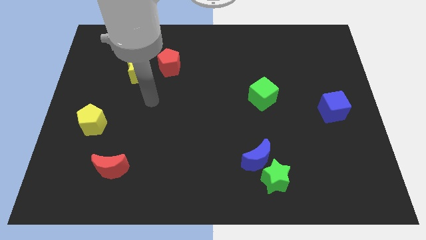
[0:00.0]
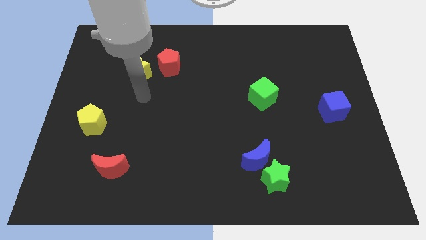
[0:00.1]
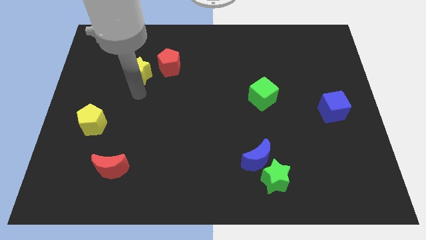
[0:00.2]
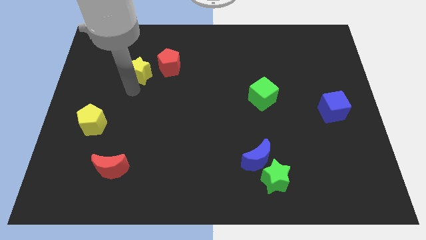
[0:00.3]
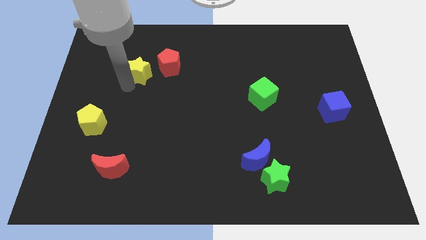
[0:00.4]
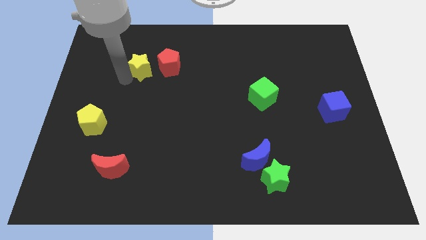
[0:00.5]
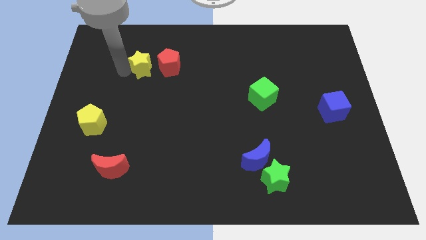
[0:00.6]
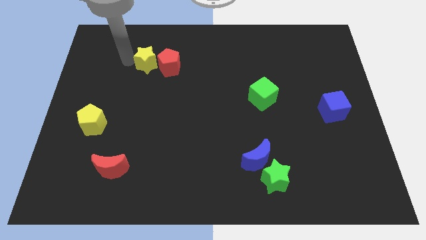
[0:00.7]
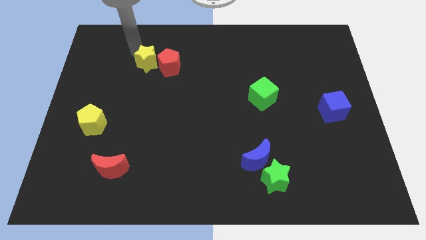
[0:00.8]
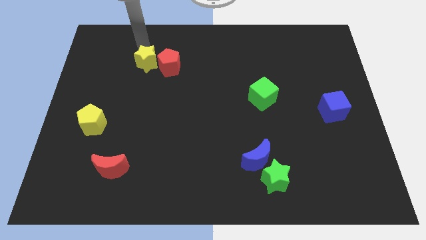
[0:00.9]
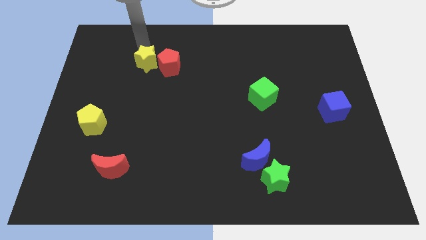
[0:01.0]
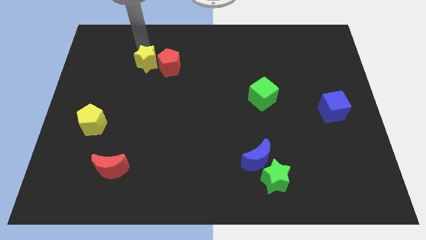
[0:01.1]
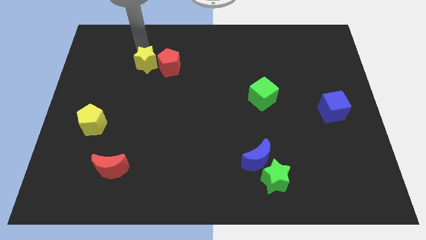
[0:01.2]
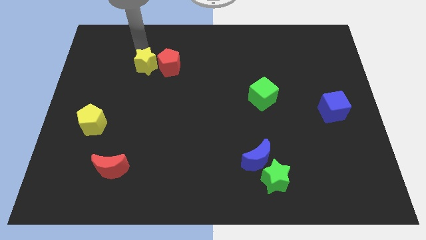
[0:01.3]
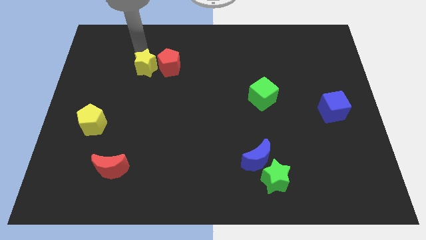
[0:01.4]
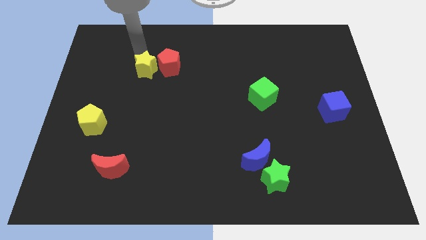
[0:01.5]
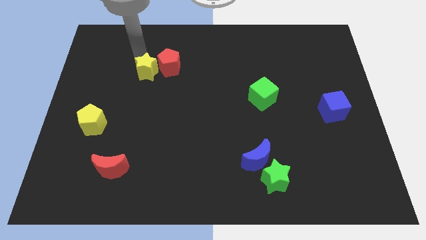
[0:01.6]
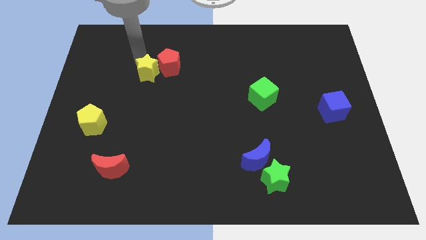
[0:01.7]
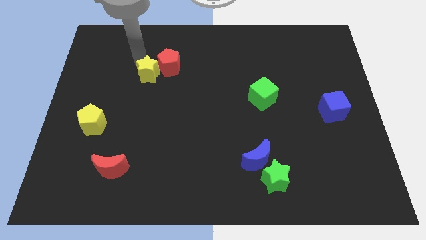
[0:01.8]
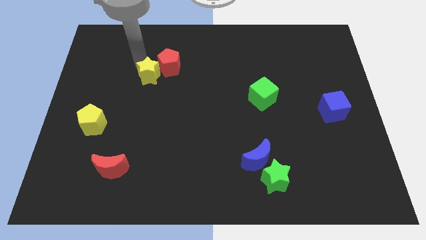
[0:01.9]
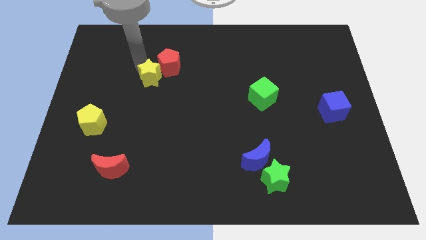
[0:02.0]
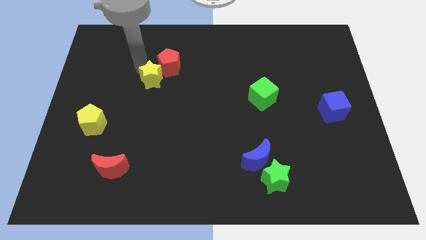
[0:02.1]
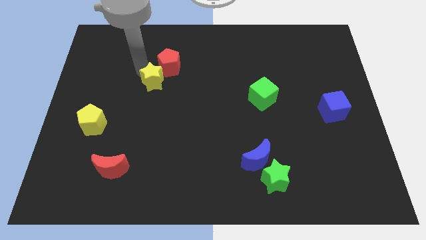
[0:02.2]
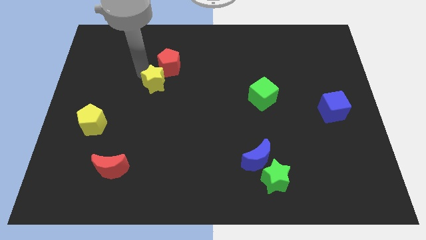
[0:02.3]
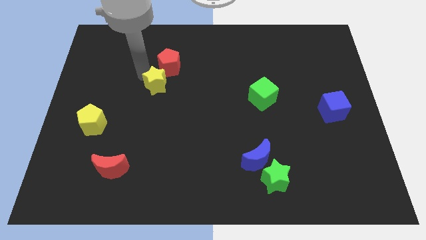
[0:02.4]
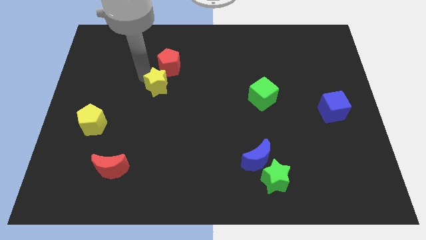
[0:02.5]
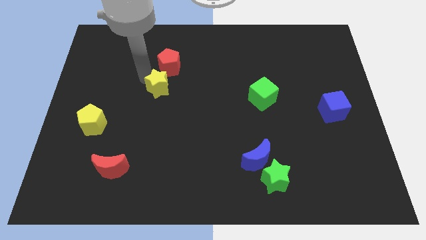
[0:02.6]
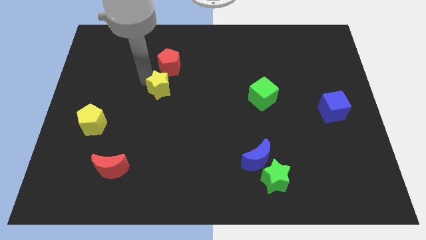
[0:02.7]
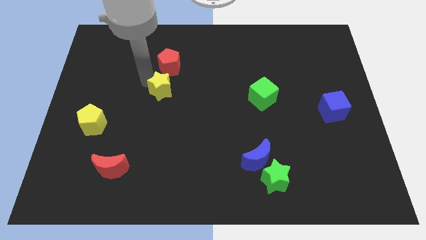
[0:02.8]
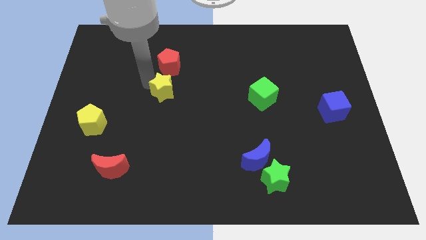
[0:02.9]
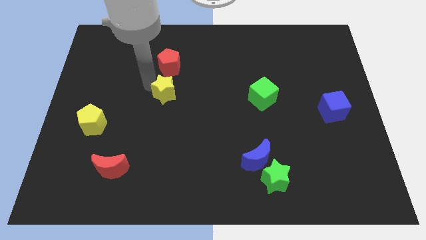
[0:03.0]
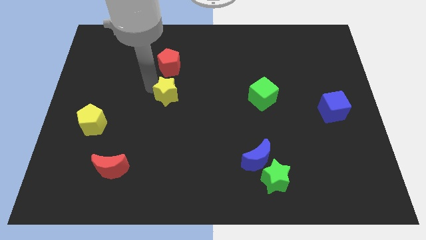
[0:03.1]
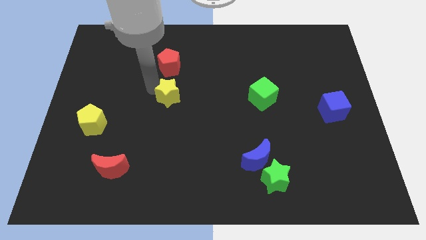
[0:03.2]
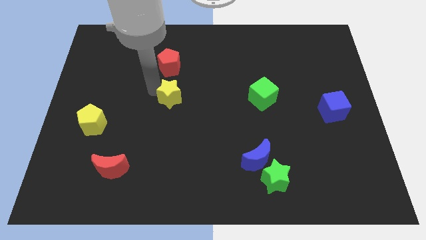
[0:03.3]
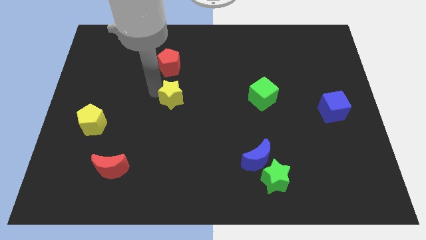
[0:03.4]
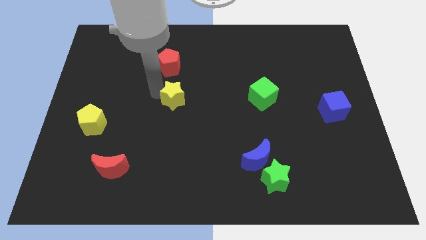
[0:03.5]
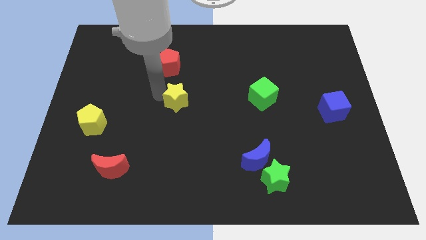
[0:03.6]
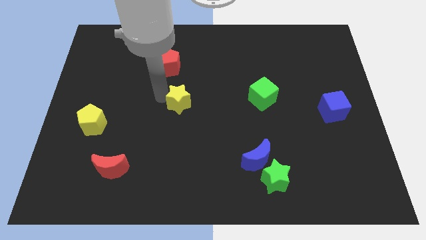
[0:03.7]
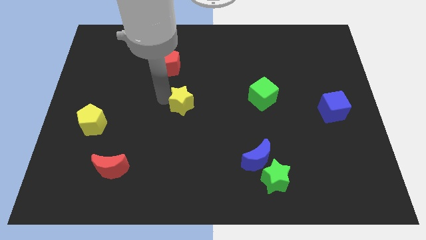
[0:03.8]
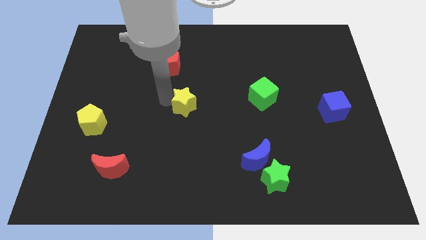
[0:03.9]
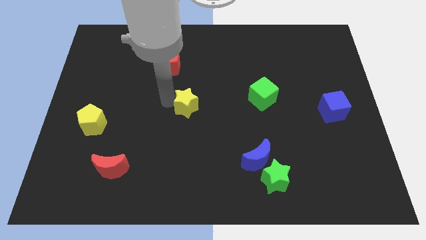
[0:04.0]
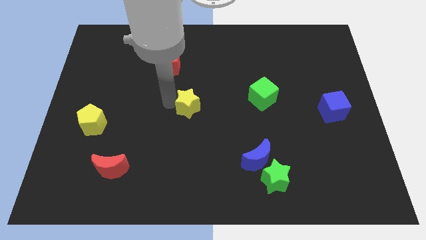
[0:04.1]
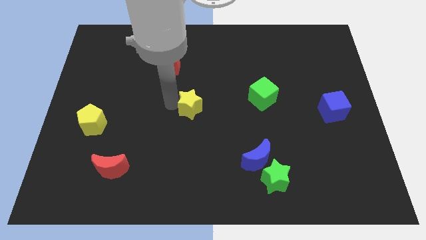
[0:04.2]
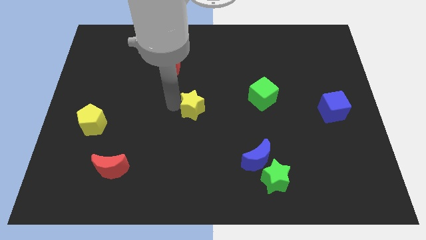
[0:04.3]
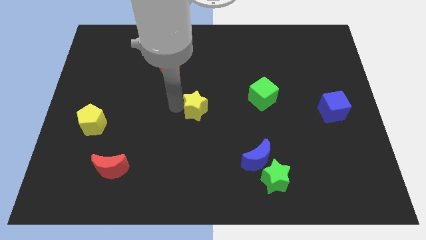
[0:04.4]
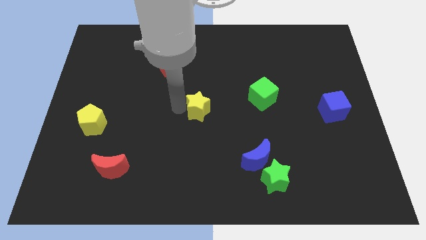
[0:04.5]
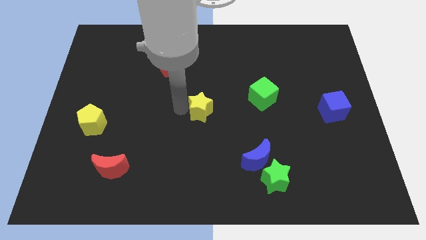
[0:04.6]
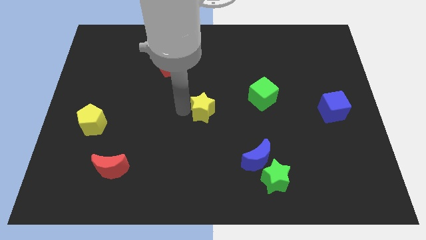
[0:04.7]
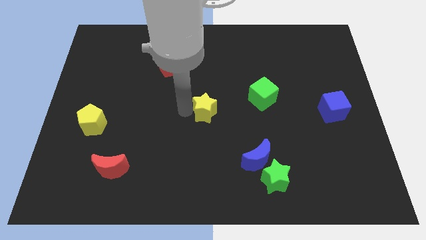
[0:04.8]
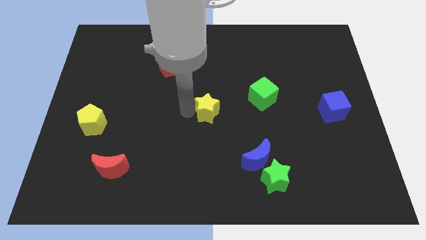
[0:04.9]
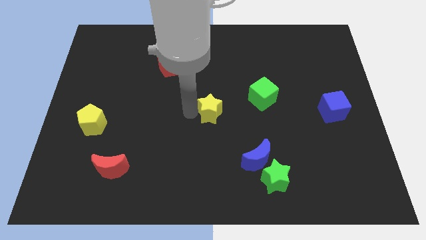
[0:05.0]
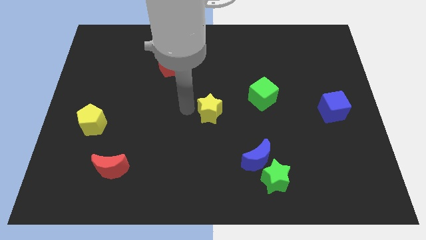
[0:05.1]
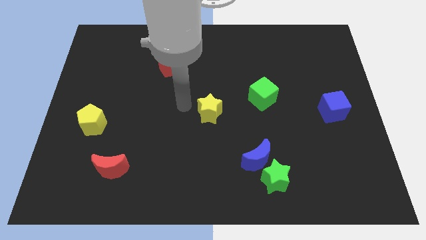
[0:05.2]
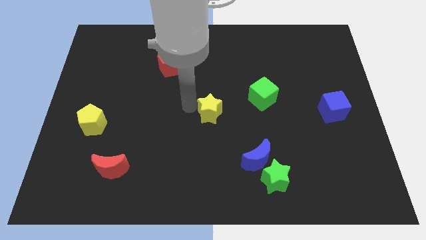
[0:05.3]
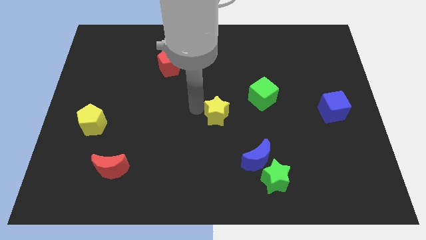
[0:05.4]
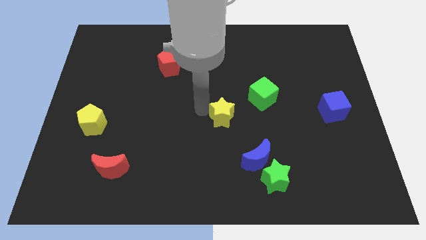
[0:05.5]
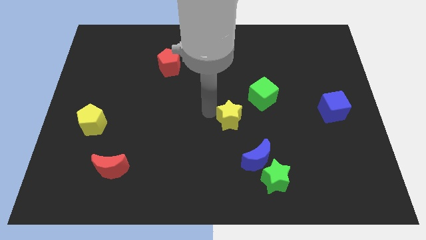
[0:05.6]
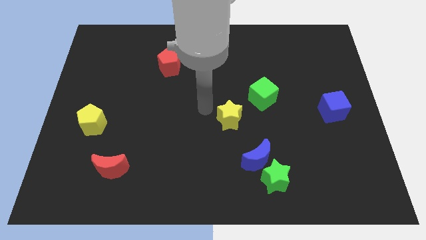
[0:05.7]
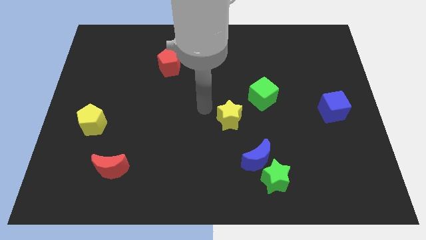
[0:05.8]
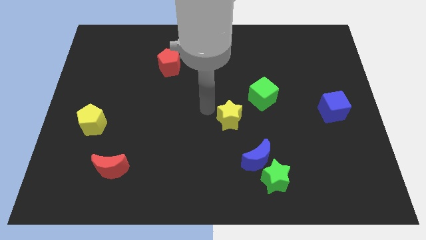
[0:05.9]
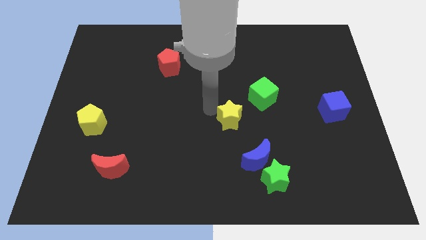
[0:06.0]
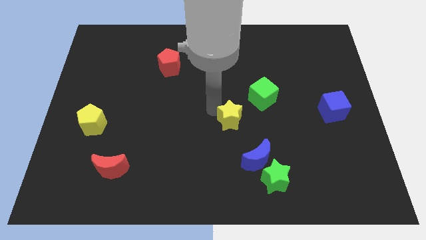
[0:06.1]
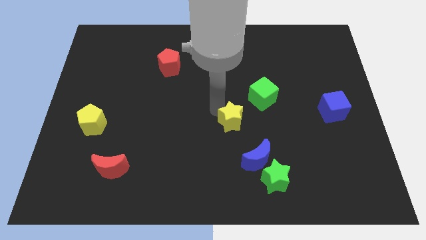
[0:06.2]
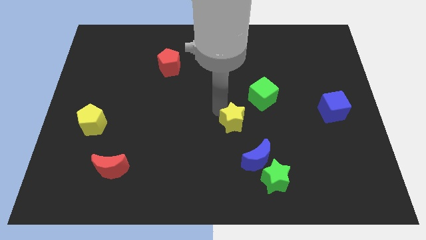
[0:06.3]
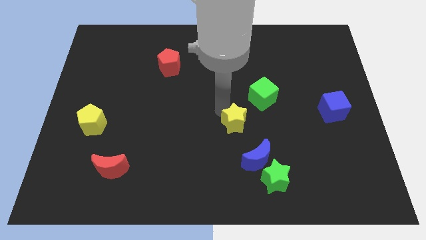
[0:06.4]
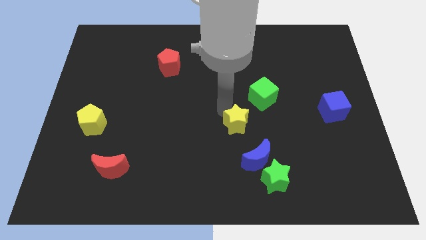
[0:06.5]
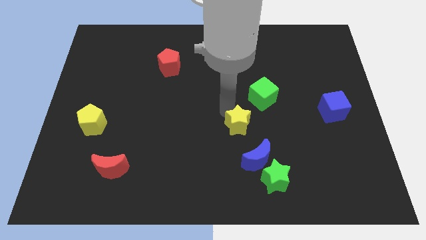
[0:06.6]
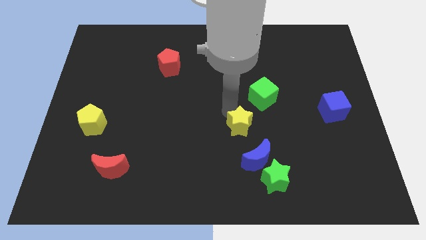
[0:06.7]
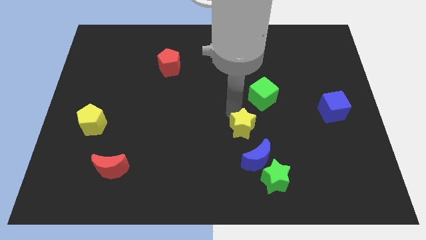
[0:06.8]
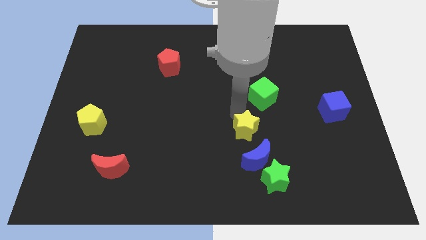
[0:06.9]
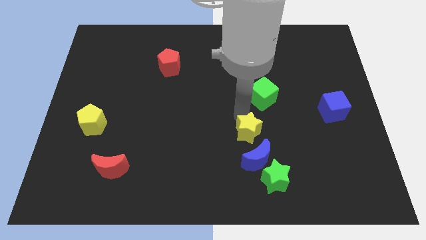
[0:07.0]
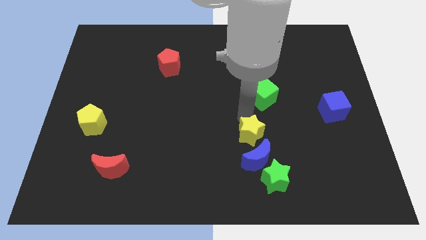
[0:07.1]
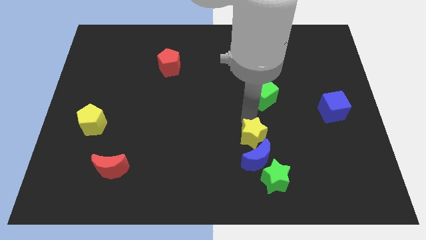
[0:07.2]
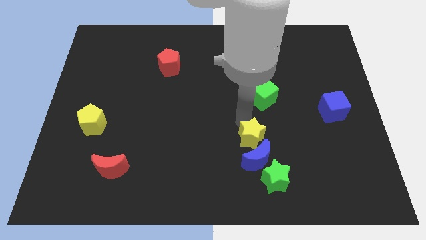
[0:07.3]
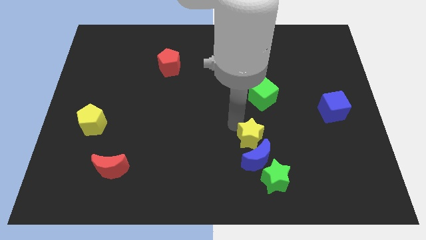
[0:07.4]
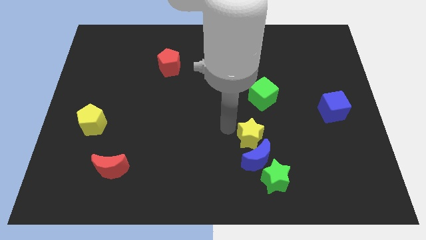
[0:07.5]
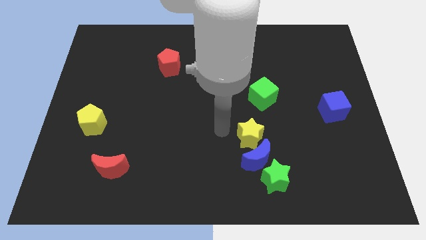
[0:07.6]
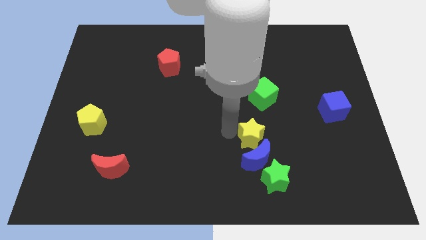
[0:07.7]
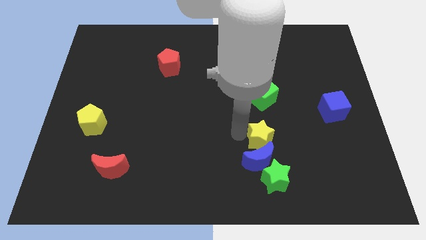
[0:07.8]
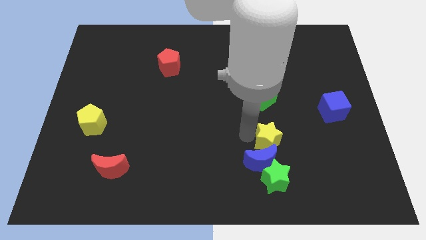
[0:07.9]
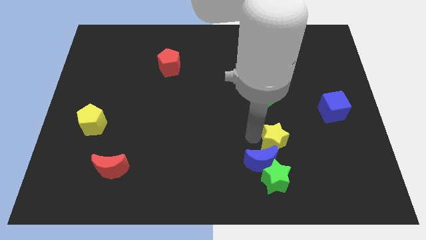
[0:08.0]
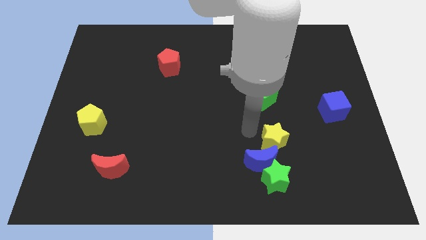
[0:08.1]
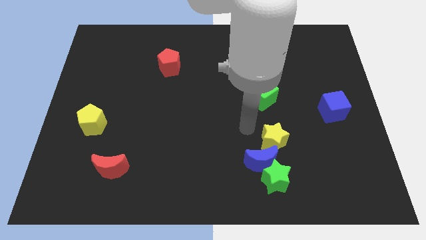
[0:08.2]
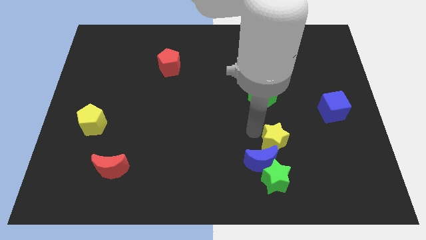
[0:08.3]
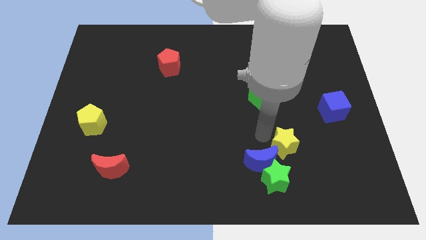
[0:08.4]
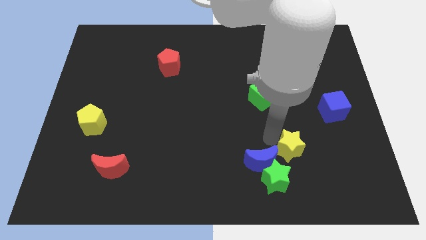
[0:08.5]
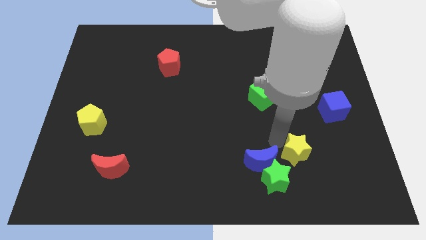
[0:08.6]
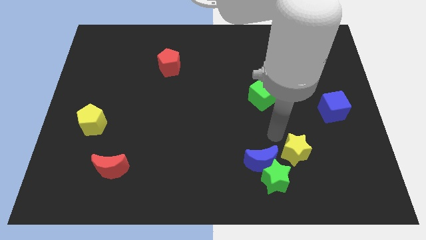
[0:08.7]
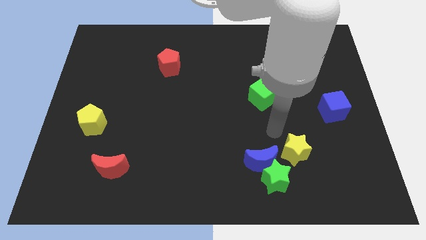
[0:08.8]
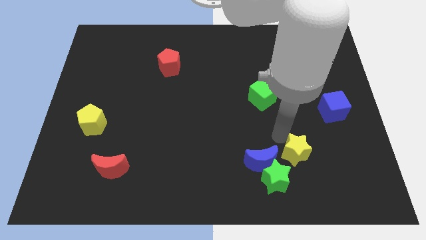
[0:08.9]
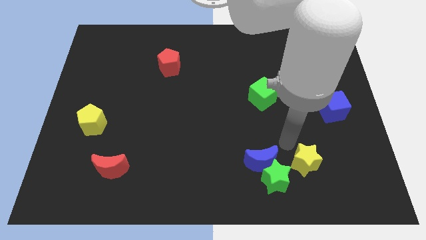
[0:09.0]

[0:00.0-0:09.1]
push the yellow star to the right side of the green star
